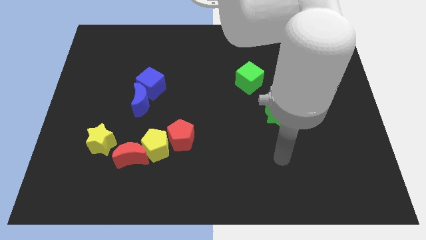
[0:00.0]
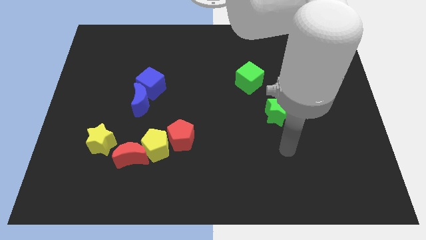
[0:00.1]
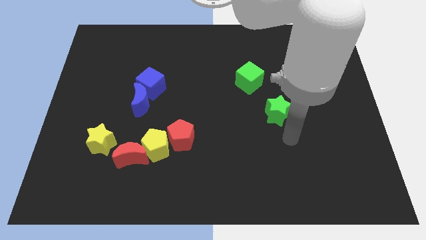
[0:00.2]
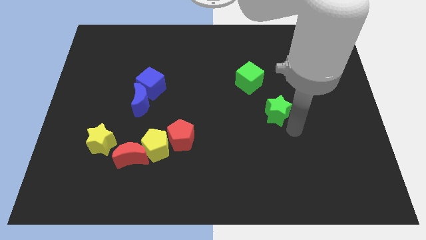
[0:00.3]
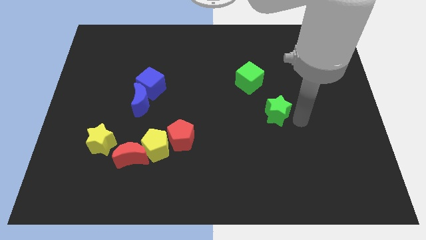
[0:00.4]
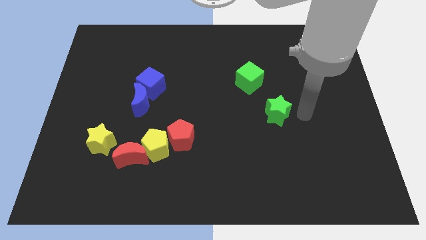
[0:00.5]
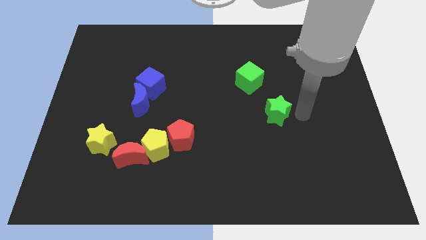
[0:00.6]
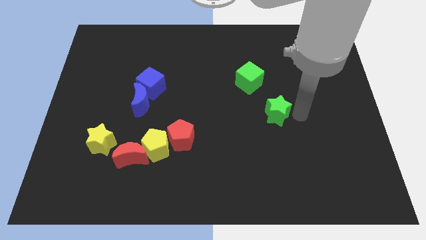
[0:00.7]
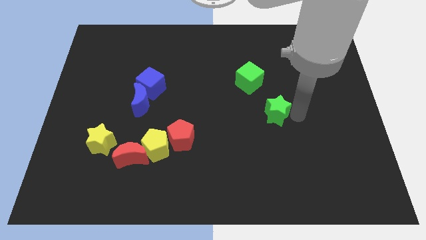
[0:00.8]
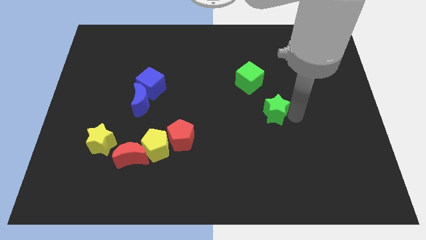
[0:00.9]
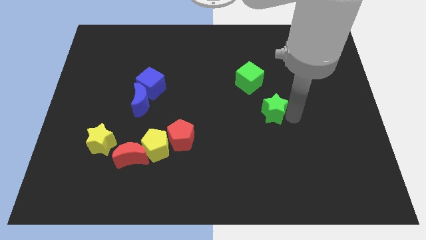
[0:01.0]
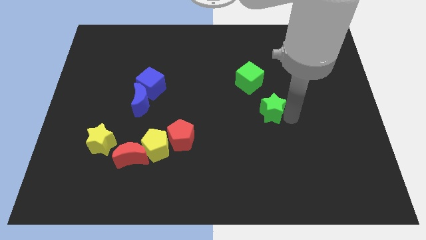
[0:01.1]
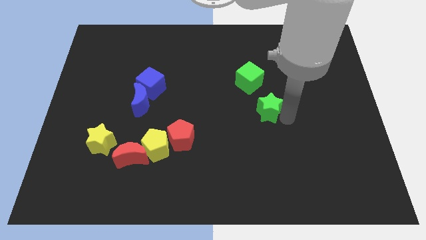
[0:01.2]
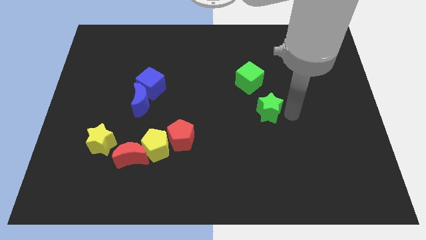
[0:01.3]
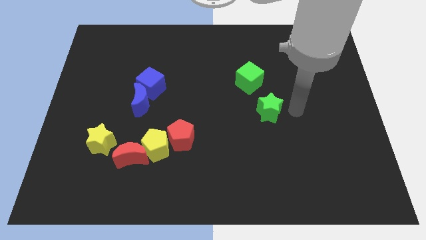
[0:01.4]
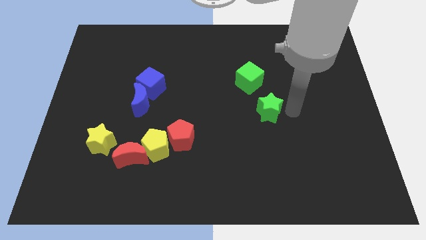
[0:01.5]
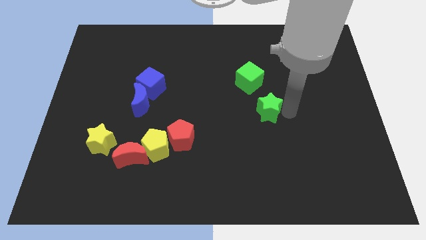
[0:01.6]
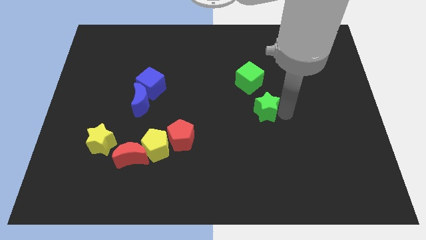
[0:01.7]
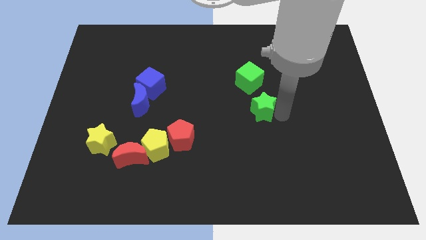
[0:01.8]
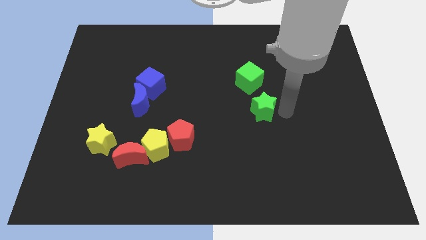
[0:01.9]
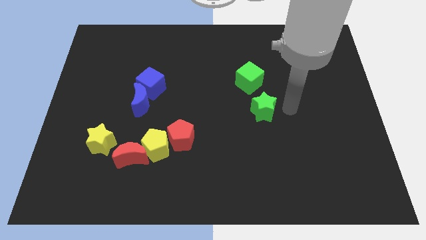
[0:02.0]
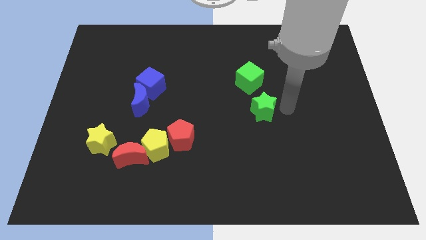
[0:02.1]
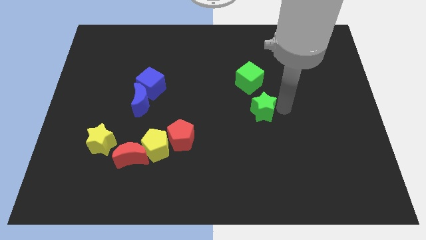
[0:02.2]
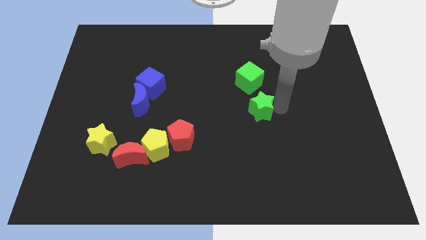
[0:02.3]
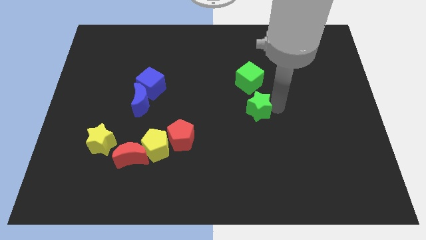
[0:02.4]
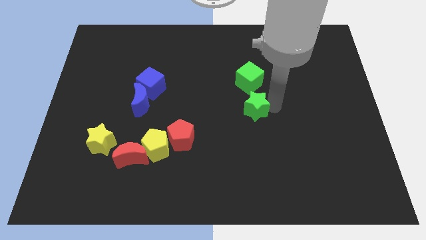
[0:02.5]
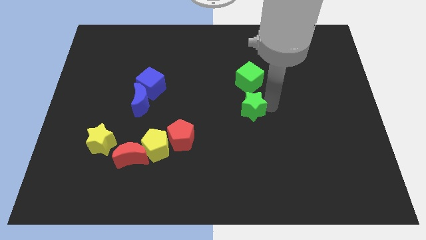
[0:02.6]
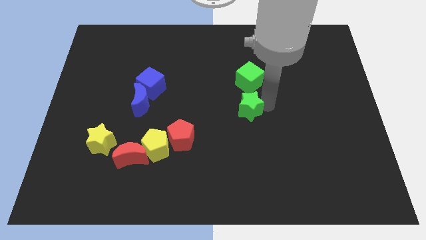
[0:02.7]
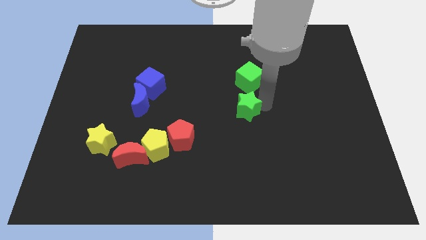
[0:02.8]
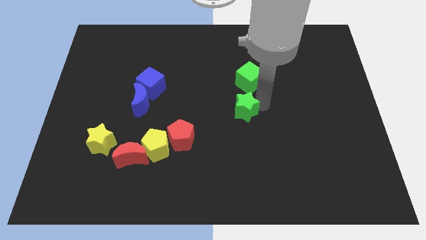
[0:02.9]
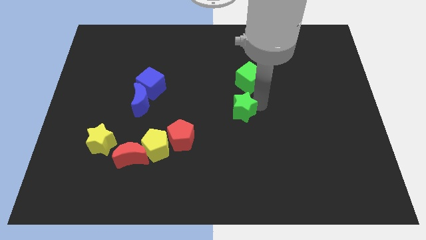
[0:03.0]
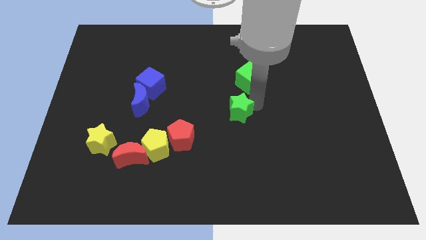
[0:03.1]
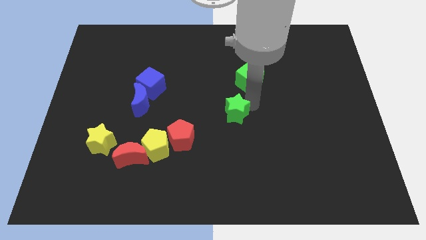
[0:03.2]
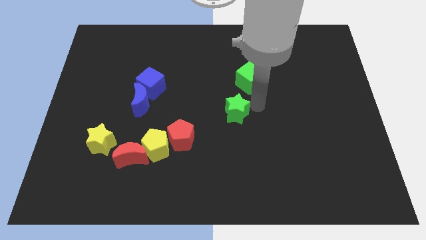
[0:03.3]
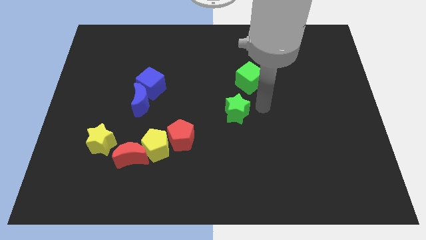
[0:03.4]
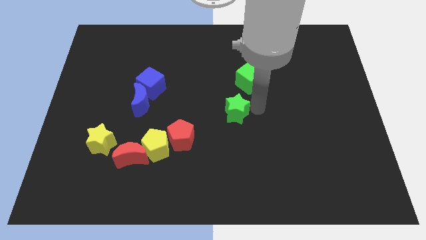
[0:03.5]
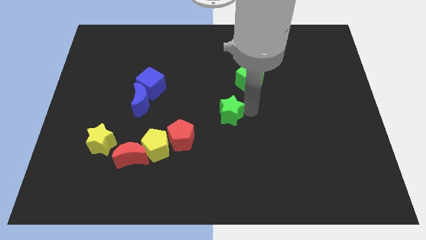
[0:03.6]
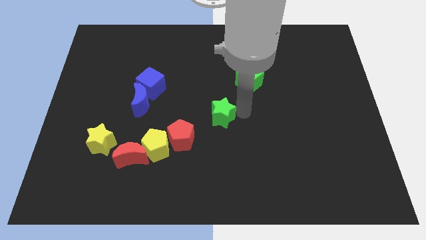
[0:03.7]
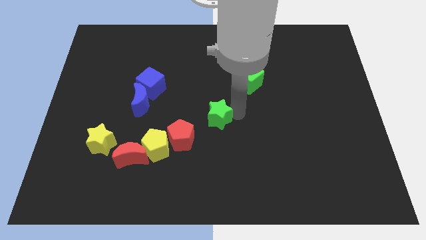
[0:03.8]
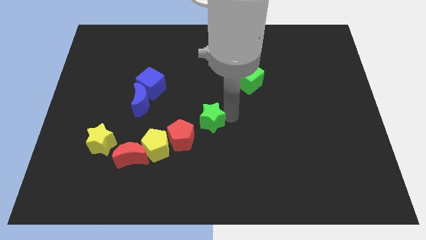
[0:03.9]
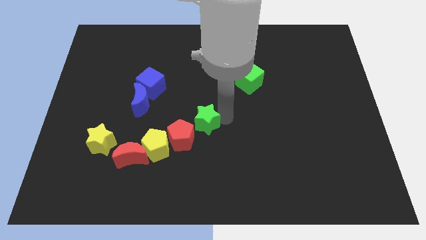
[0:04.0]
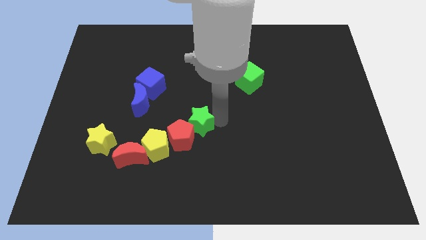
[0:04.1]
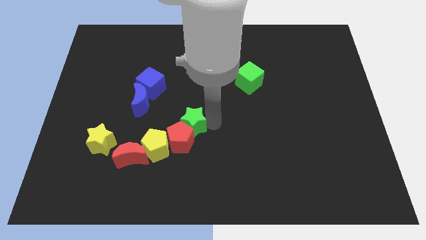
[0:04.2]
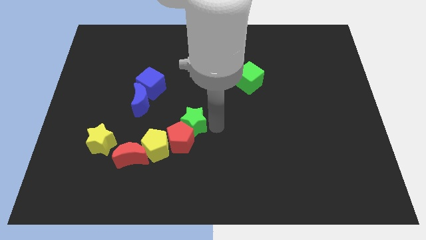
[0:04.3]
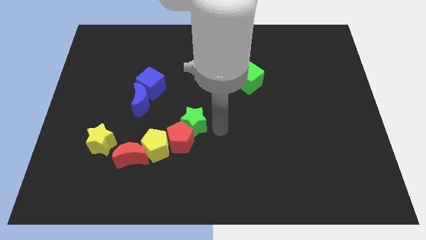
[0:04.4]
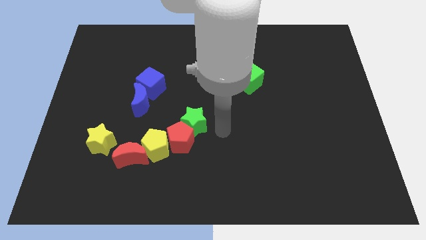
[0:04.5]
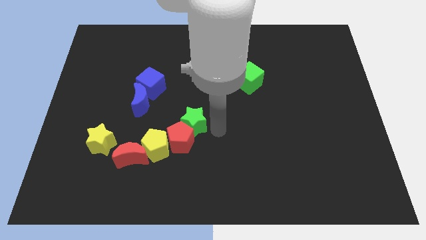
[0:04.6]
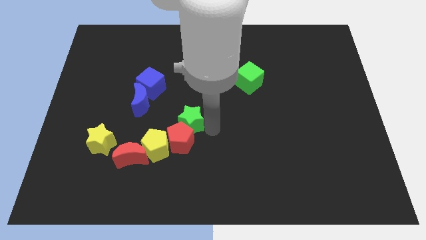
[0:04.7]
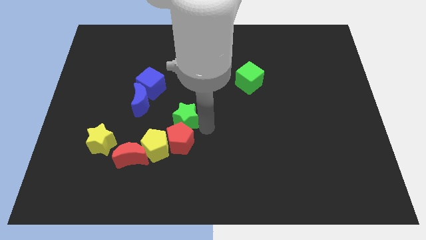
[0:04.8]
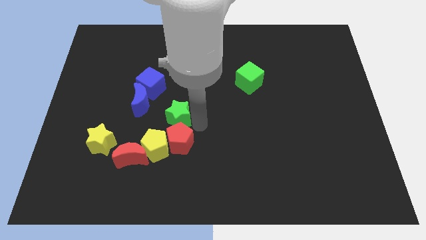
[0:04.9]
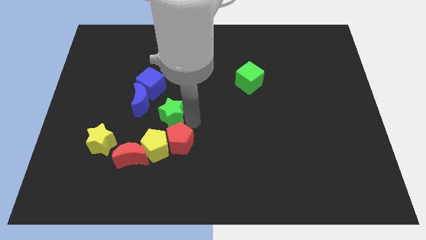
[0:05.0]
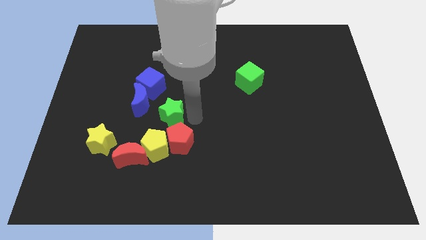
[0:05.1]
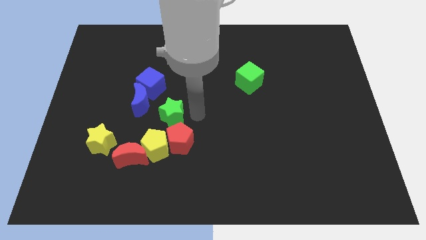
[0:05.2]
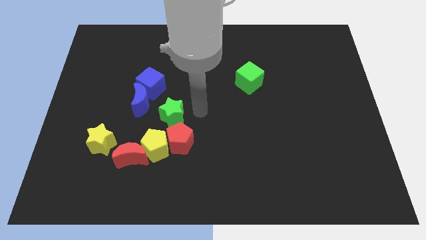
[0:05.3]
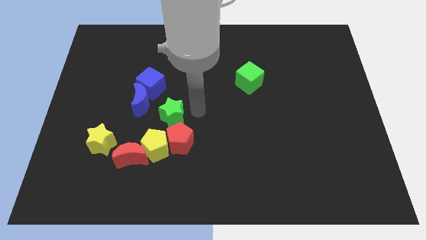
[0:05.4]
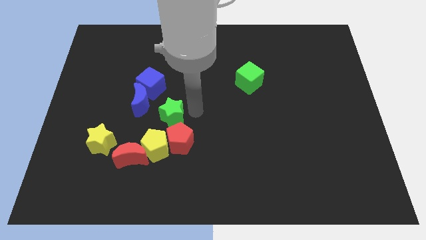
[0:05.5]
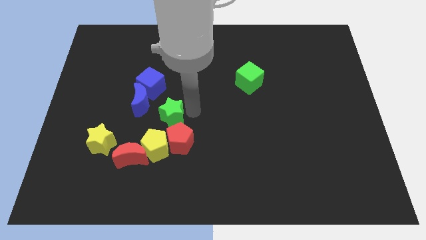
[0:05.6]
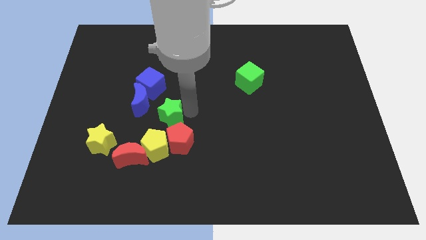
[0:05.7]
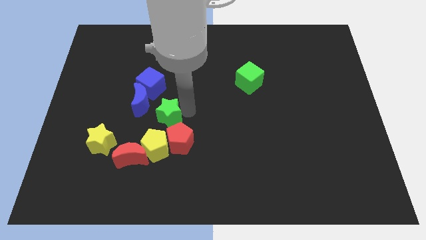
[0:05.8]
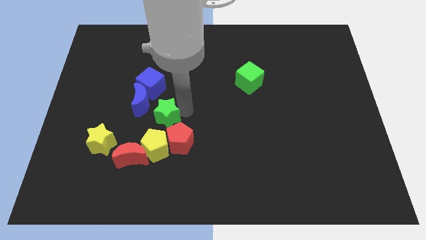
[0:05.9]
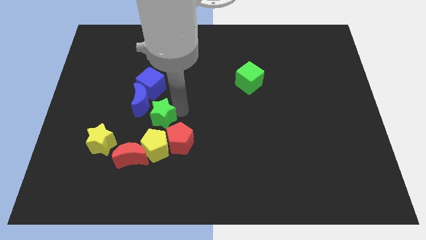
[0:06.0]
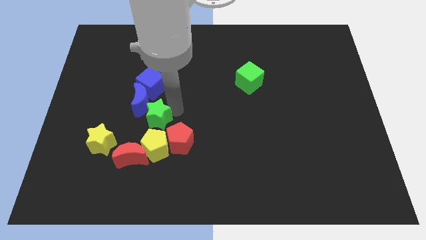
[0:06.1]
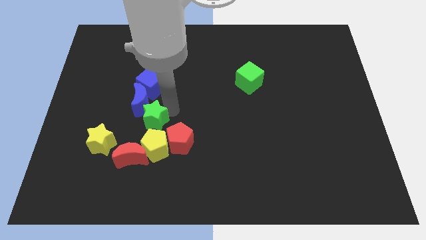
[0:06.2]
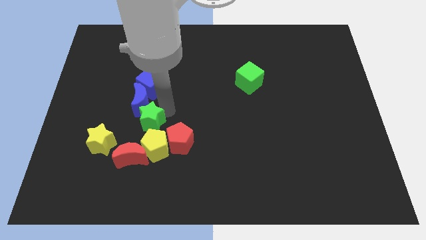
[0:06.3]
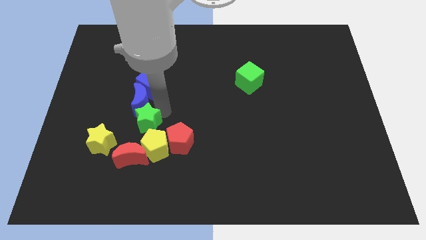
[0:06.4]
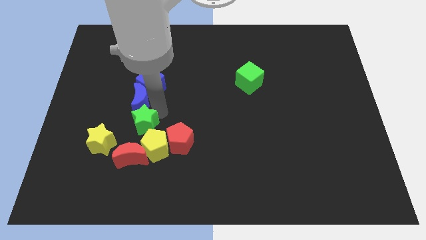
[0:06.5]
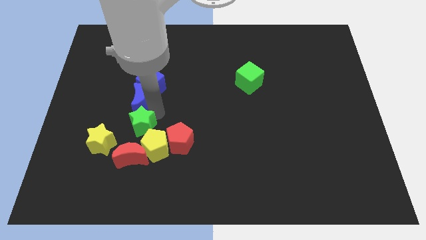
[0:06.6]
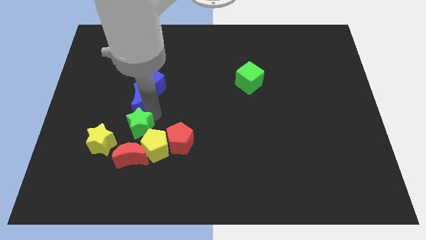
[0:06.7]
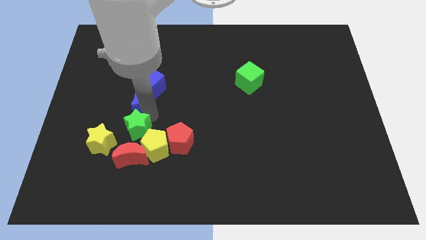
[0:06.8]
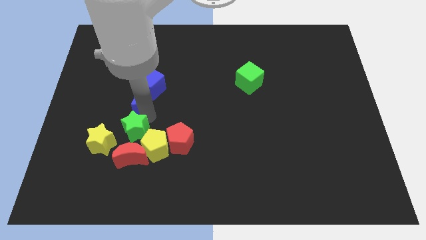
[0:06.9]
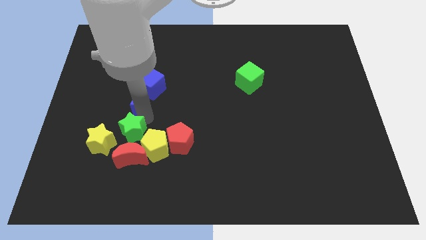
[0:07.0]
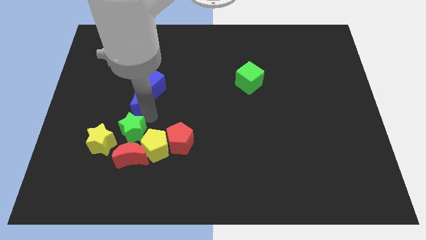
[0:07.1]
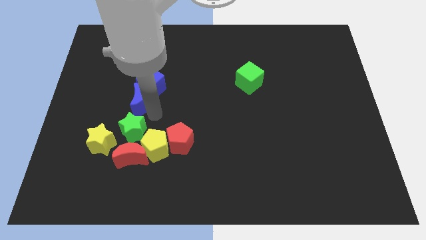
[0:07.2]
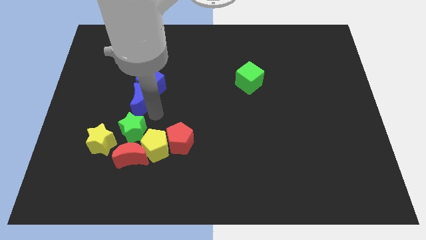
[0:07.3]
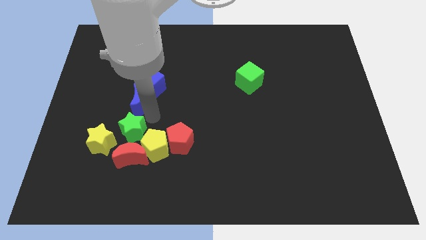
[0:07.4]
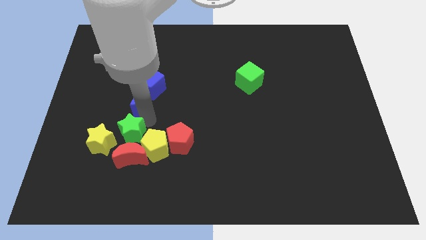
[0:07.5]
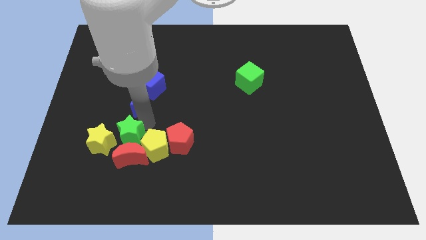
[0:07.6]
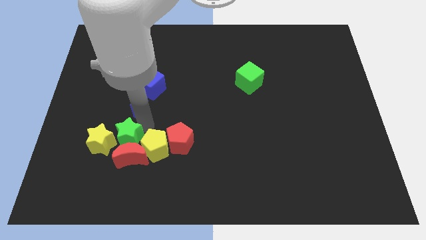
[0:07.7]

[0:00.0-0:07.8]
move the green star towards the yellow star
